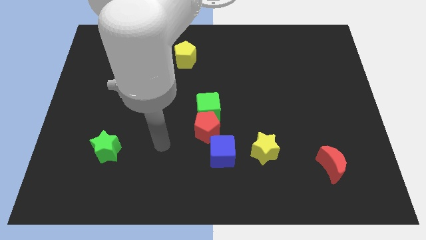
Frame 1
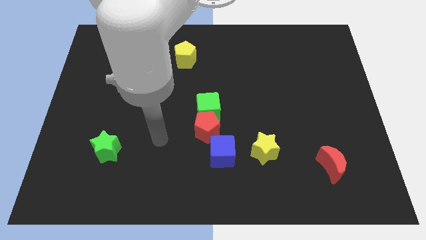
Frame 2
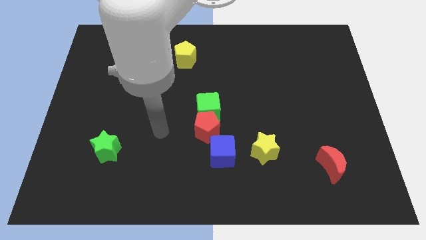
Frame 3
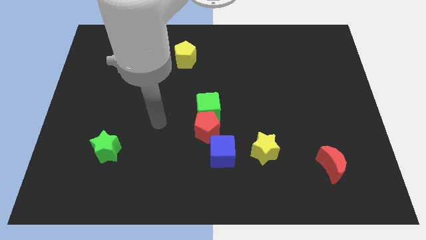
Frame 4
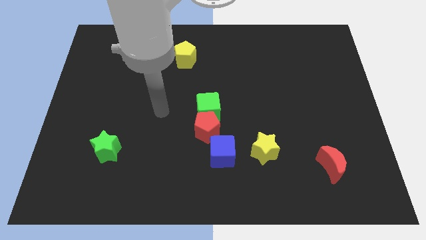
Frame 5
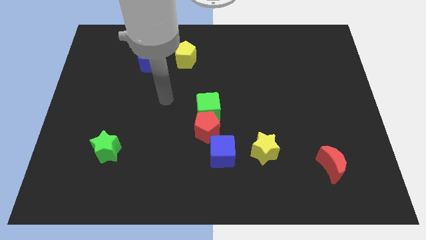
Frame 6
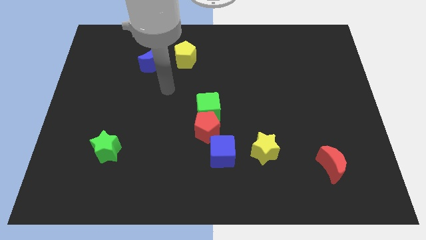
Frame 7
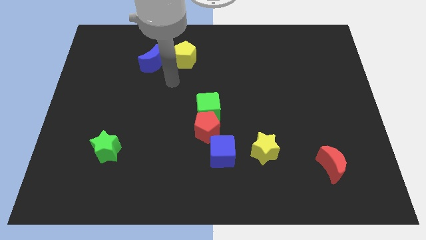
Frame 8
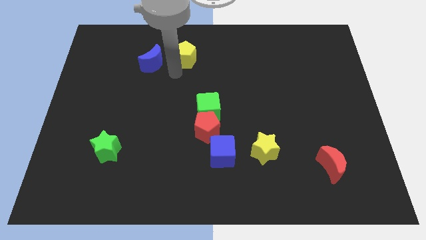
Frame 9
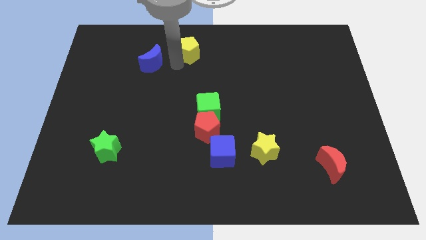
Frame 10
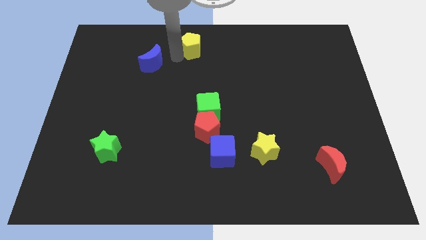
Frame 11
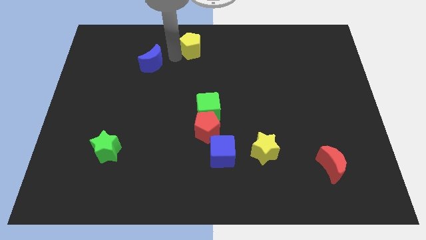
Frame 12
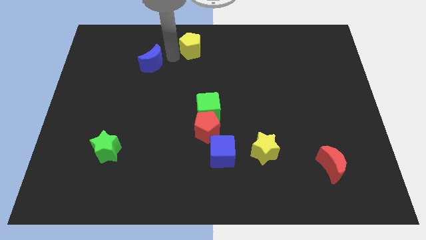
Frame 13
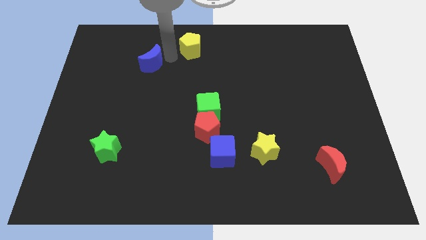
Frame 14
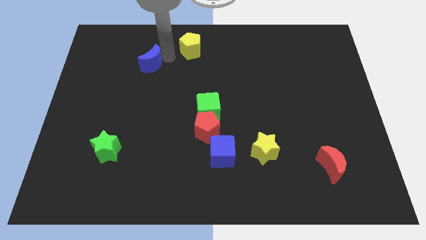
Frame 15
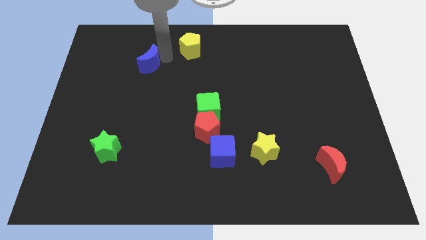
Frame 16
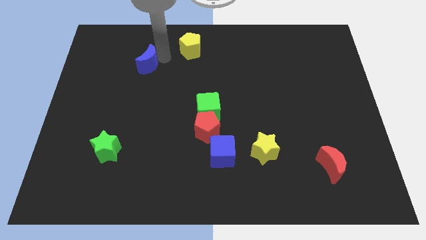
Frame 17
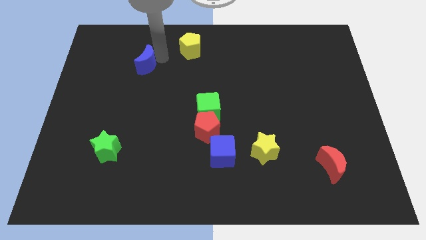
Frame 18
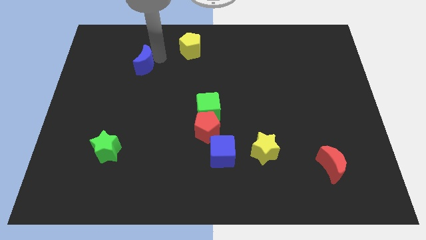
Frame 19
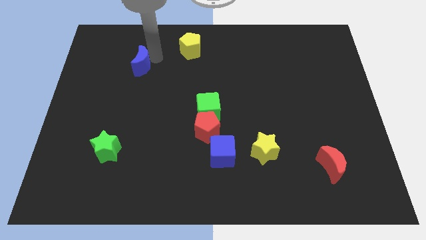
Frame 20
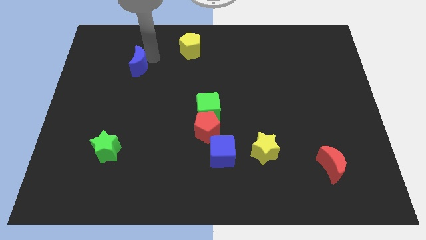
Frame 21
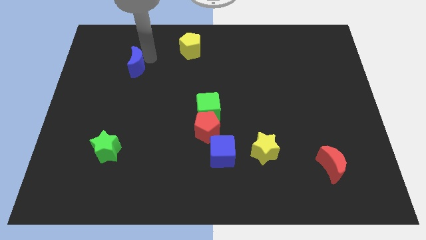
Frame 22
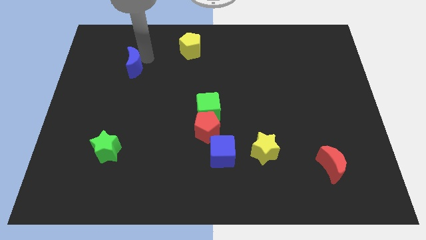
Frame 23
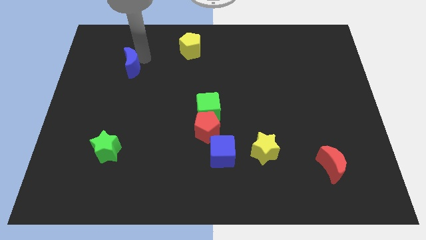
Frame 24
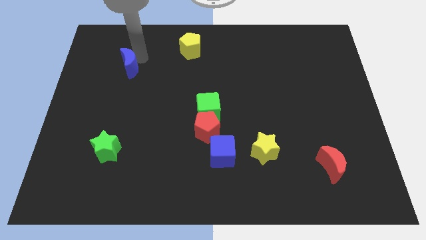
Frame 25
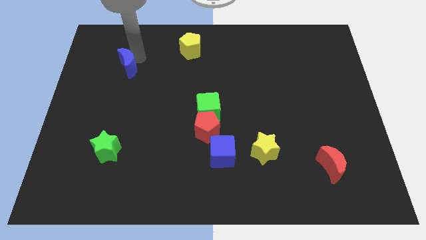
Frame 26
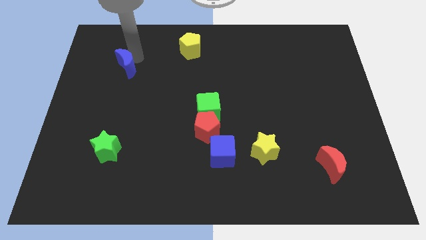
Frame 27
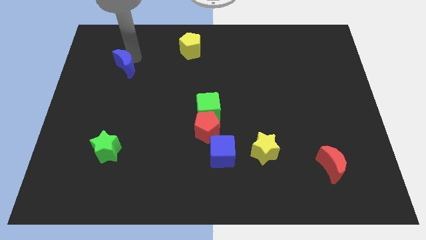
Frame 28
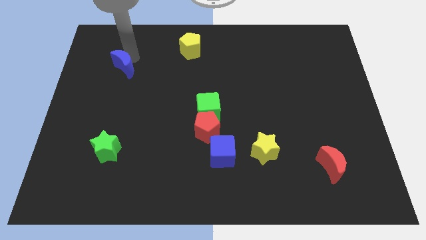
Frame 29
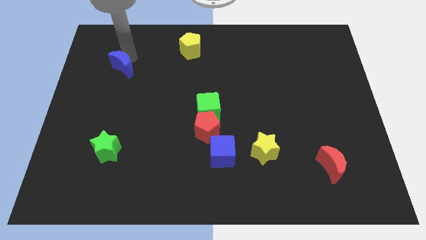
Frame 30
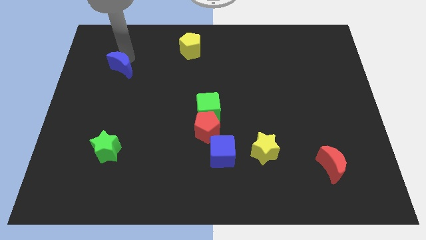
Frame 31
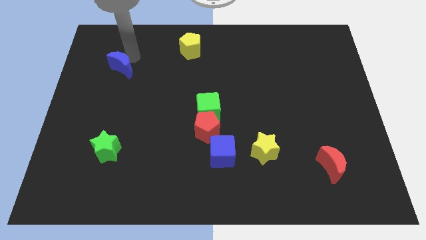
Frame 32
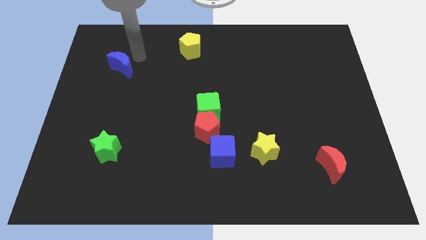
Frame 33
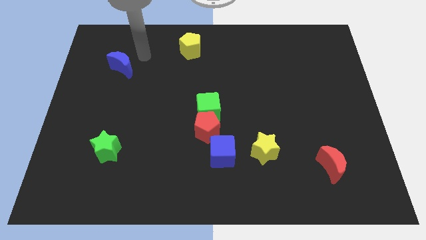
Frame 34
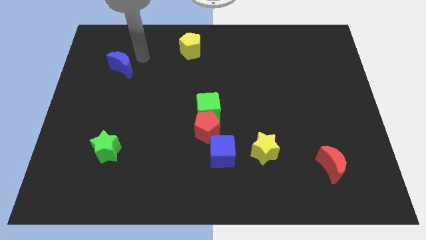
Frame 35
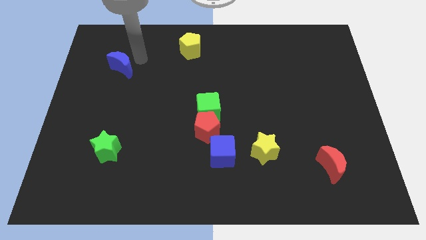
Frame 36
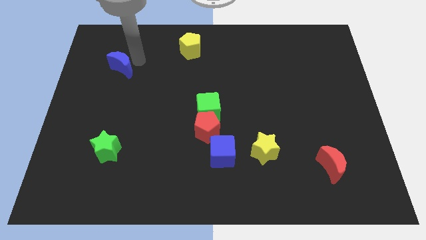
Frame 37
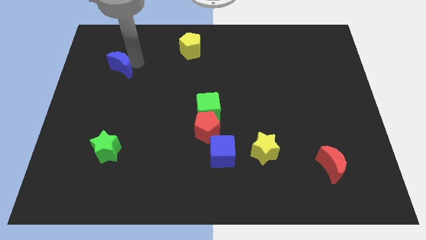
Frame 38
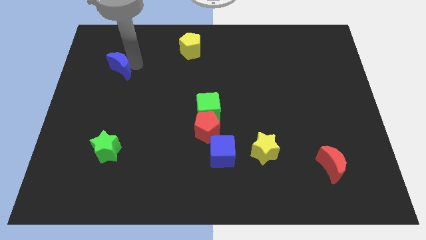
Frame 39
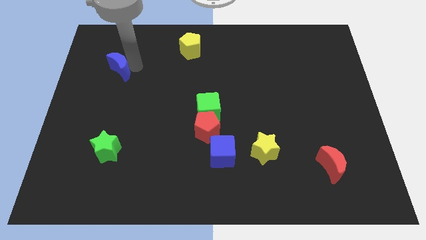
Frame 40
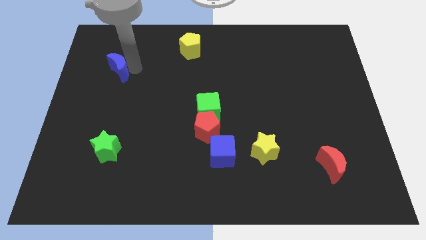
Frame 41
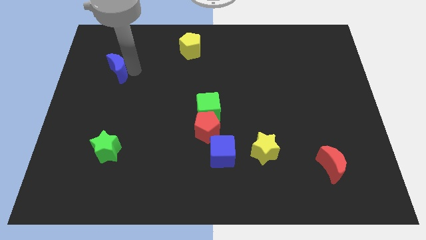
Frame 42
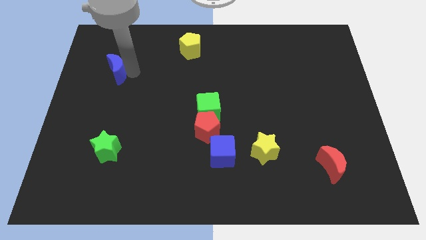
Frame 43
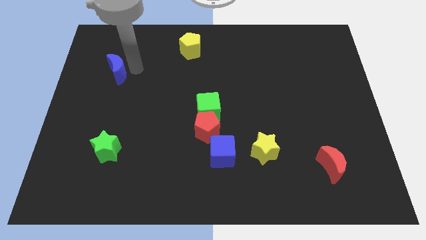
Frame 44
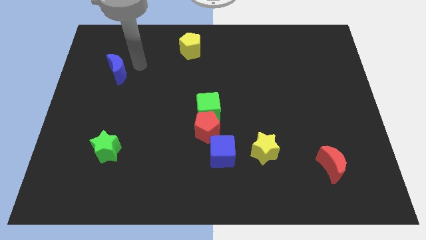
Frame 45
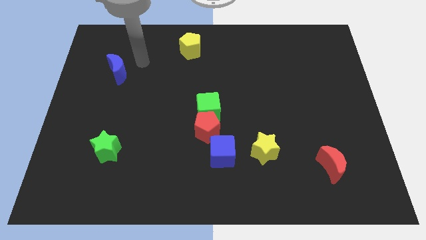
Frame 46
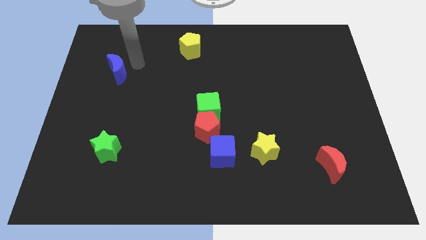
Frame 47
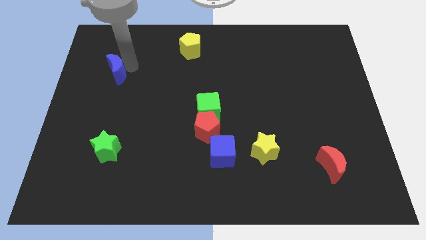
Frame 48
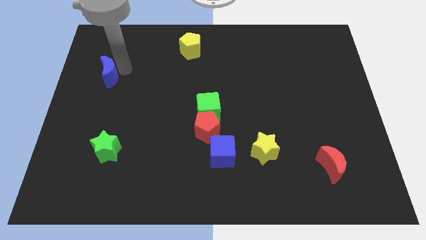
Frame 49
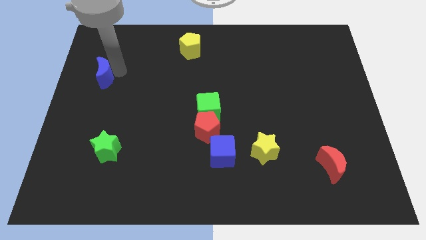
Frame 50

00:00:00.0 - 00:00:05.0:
slide the blue moon to the left side

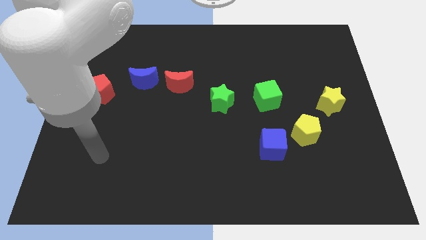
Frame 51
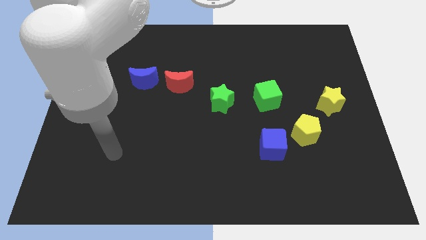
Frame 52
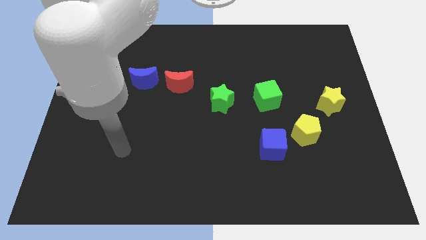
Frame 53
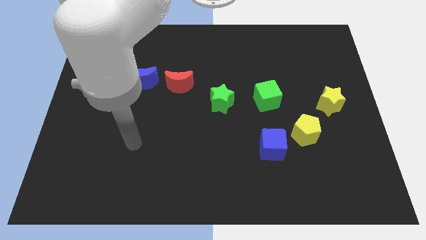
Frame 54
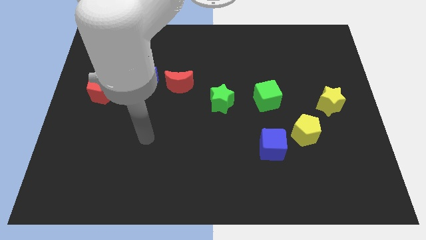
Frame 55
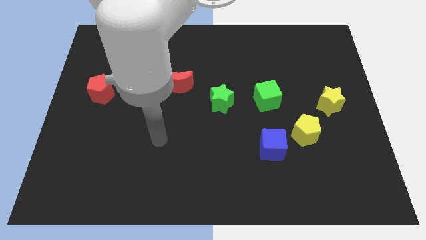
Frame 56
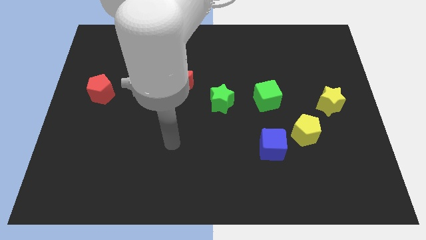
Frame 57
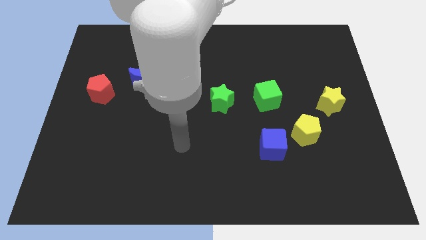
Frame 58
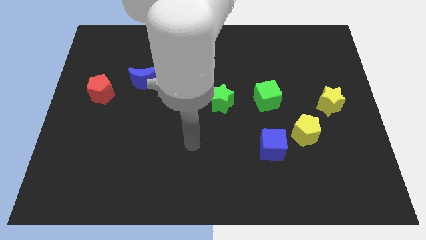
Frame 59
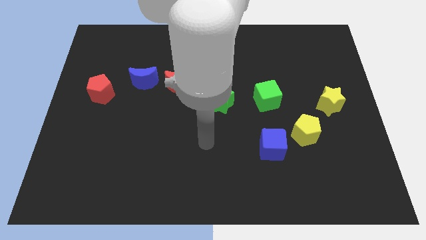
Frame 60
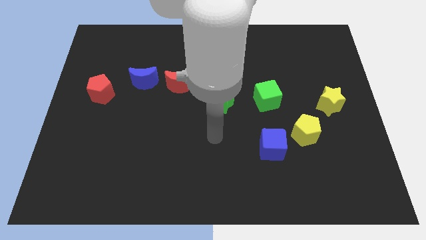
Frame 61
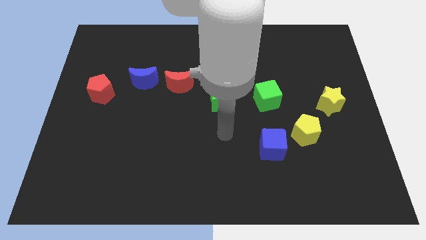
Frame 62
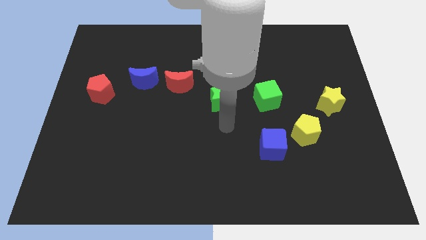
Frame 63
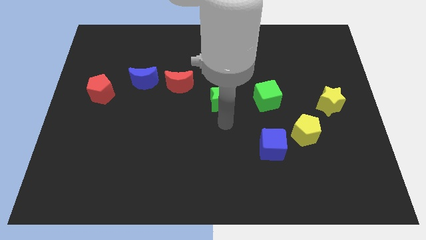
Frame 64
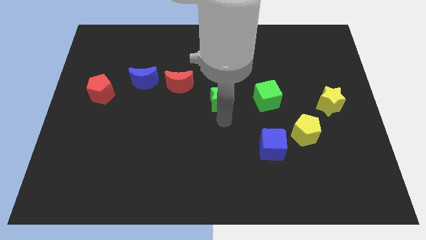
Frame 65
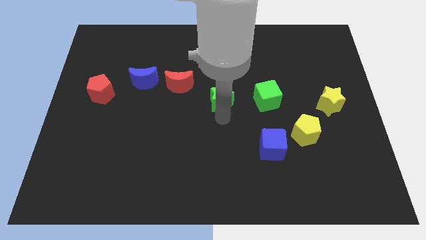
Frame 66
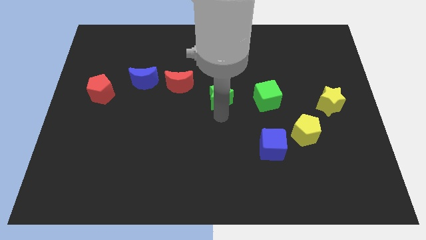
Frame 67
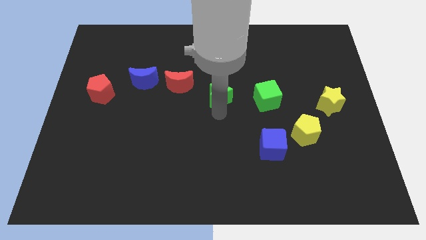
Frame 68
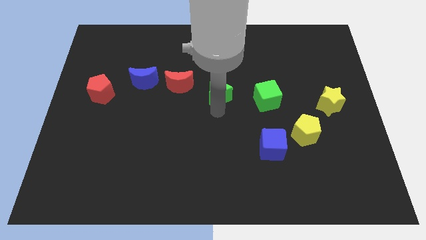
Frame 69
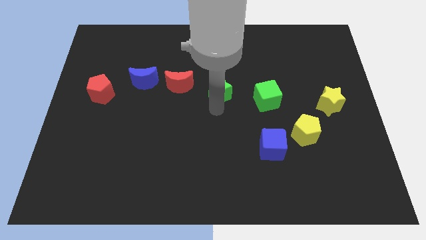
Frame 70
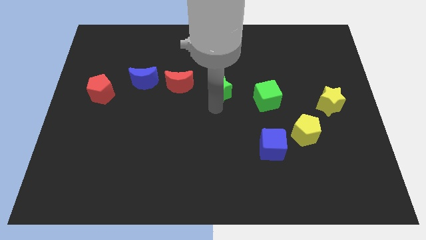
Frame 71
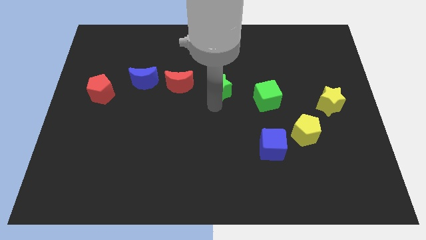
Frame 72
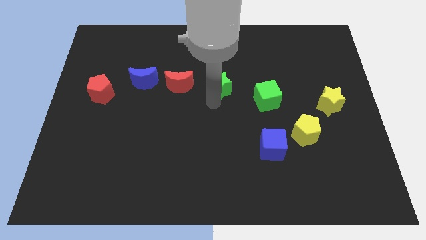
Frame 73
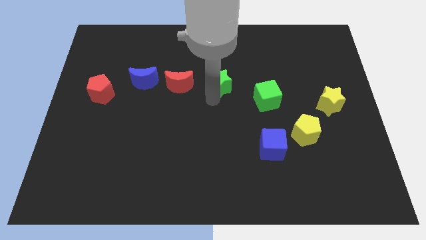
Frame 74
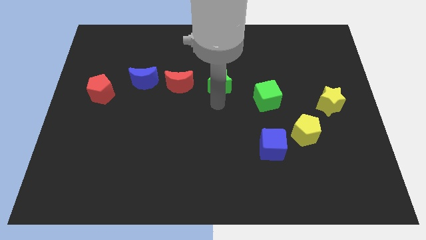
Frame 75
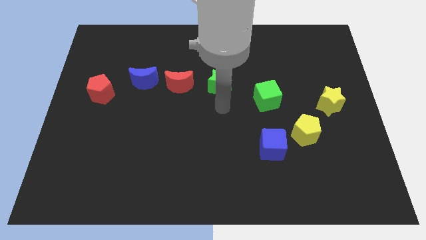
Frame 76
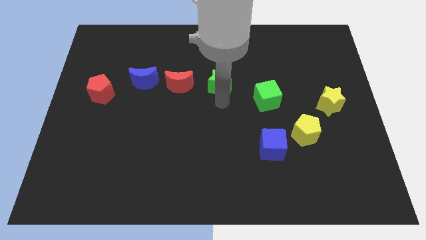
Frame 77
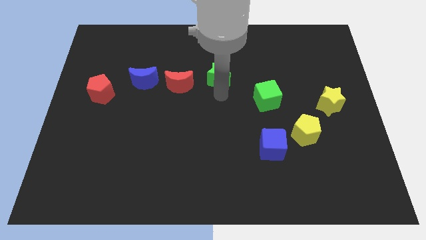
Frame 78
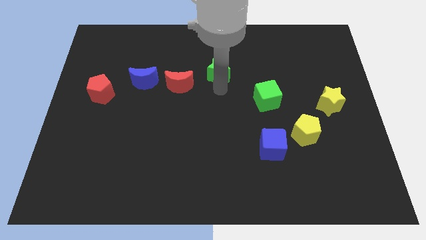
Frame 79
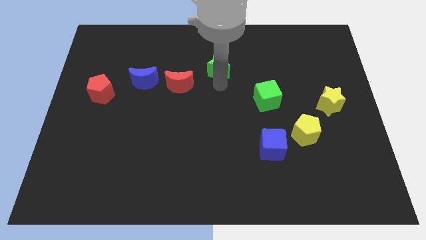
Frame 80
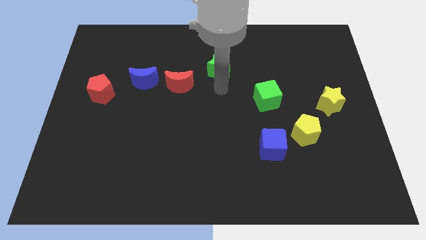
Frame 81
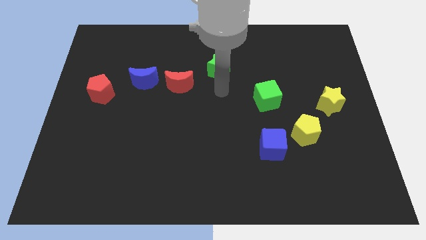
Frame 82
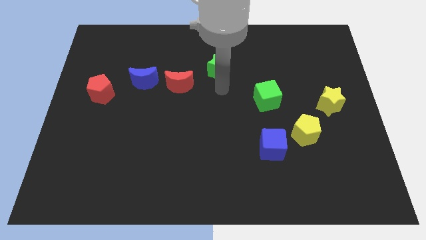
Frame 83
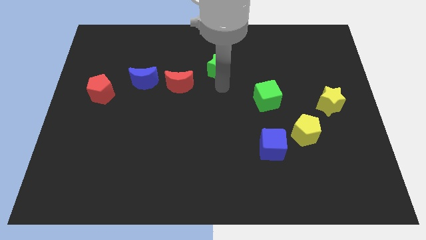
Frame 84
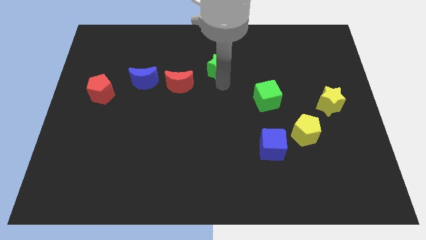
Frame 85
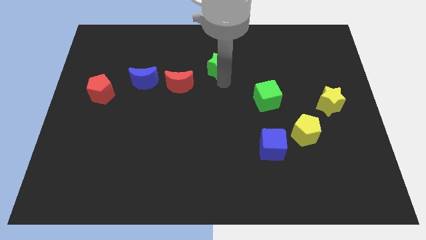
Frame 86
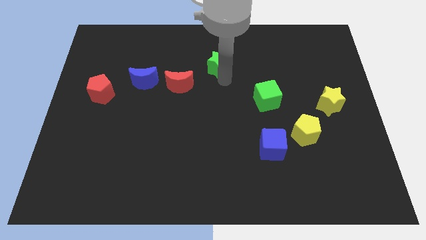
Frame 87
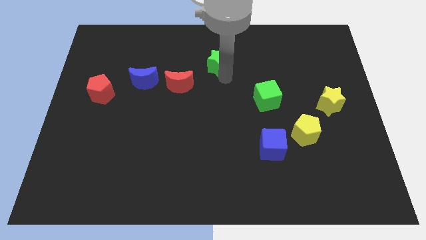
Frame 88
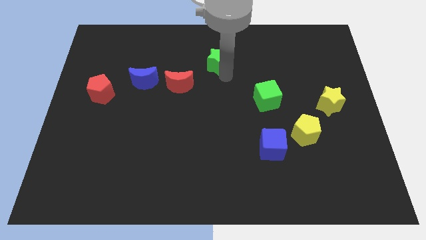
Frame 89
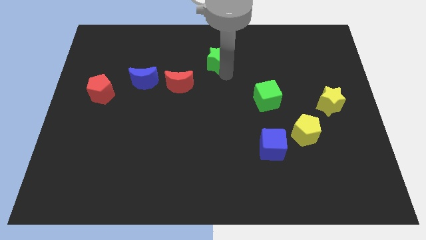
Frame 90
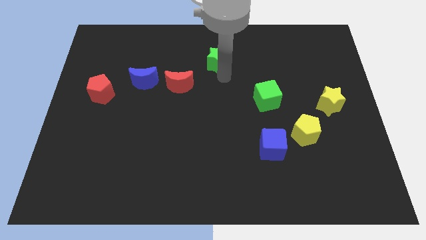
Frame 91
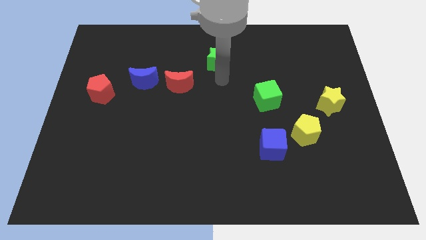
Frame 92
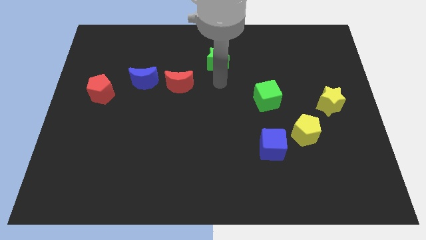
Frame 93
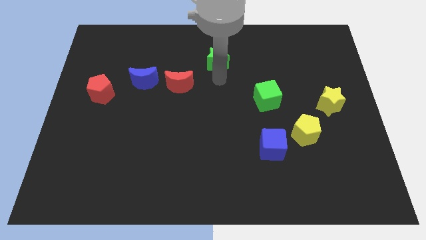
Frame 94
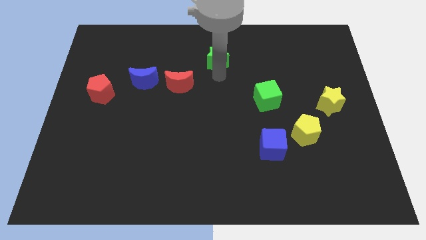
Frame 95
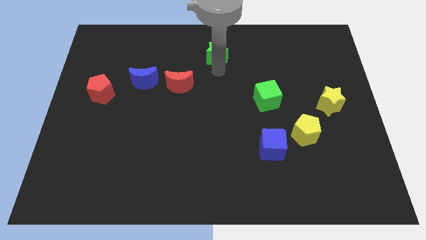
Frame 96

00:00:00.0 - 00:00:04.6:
move the green star to the towards your base
